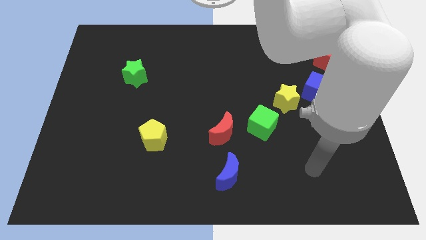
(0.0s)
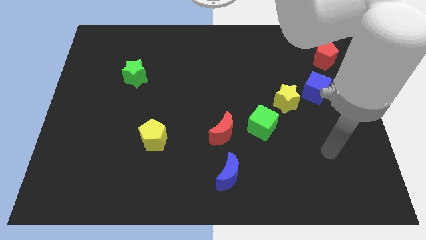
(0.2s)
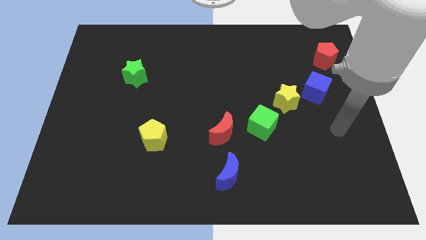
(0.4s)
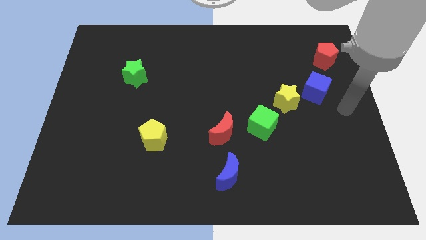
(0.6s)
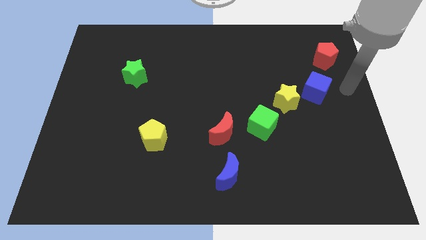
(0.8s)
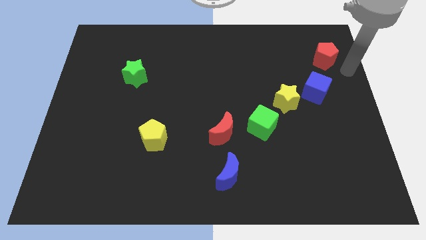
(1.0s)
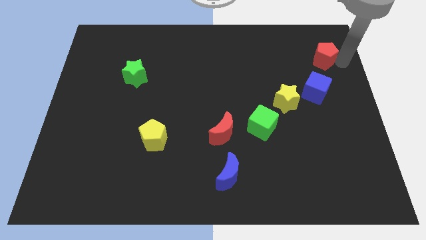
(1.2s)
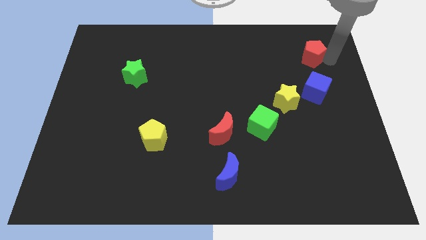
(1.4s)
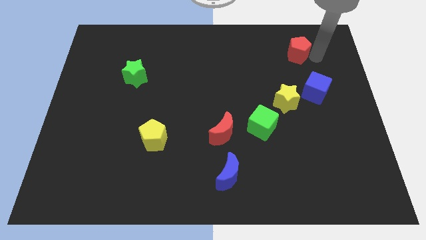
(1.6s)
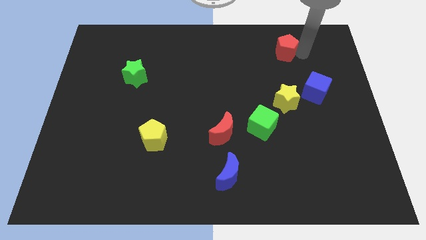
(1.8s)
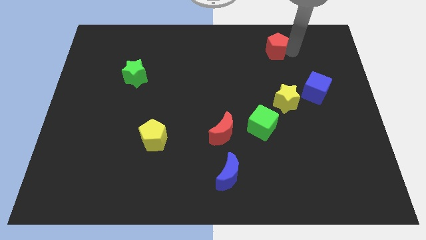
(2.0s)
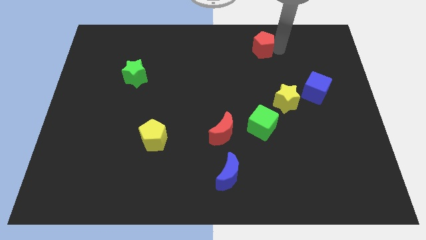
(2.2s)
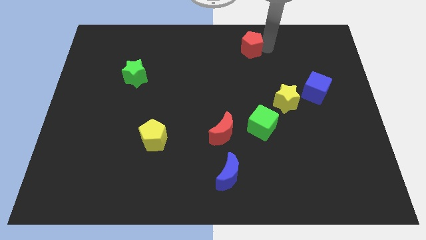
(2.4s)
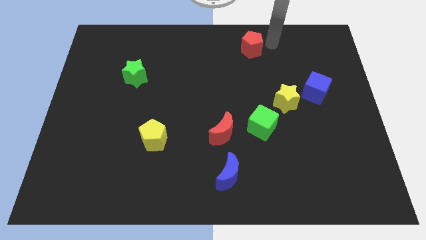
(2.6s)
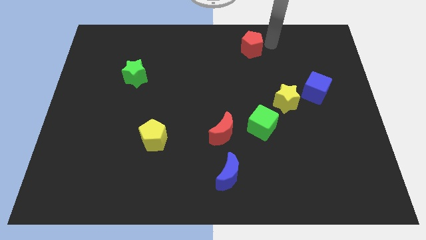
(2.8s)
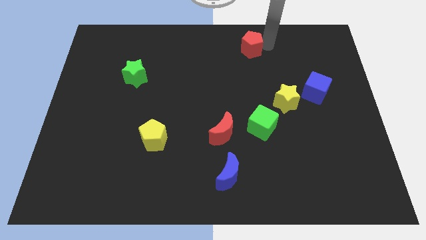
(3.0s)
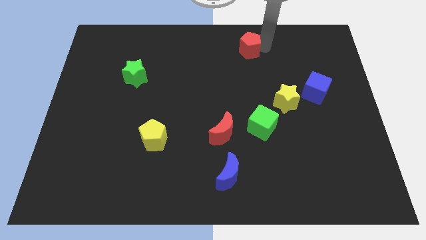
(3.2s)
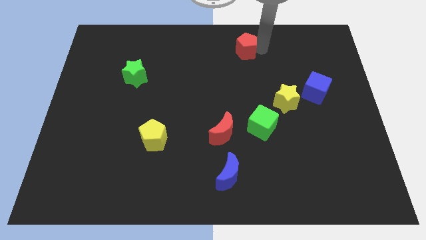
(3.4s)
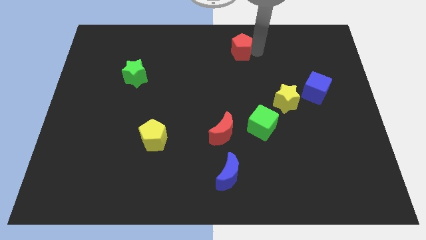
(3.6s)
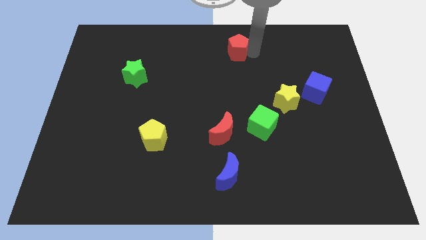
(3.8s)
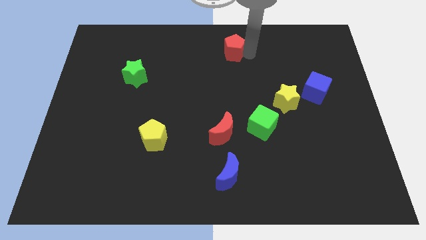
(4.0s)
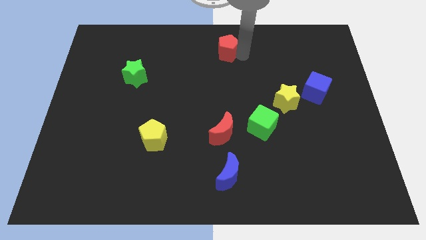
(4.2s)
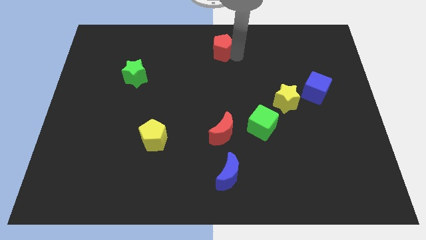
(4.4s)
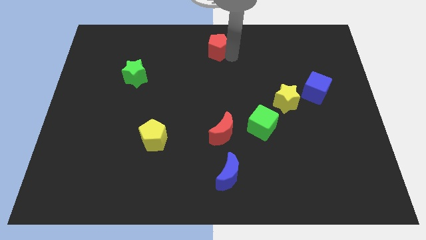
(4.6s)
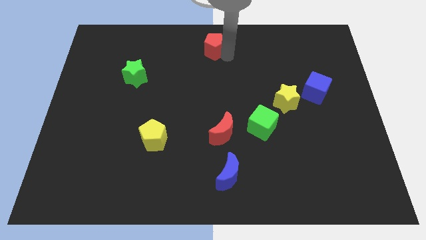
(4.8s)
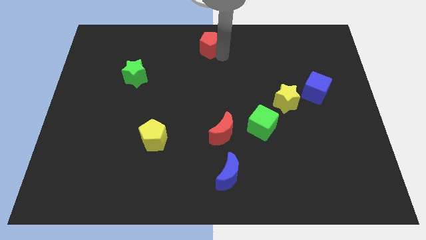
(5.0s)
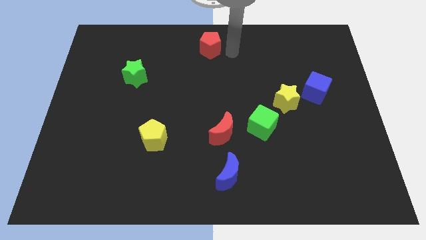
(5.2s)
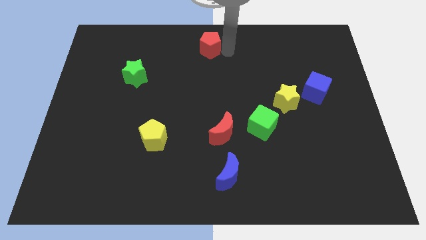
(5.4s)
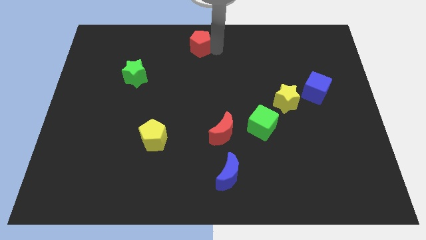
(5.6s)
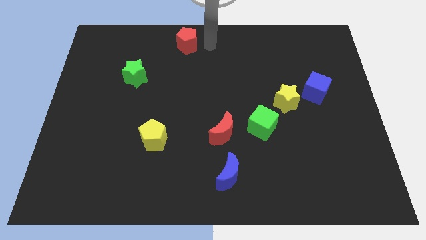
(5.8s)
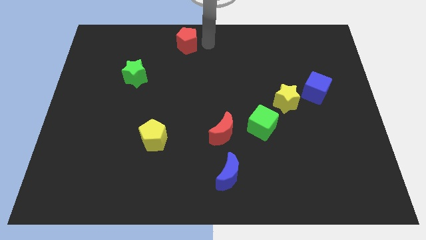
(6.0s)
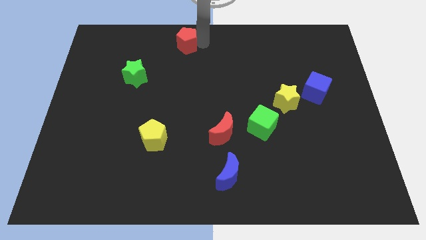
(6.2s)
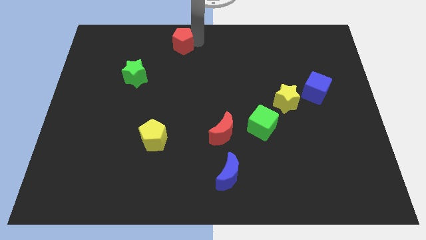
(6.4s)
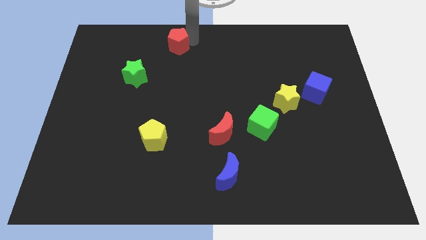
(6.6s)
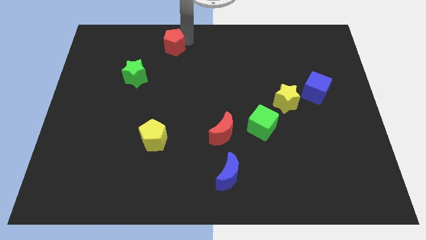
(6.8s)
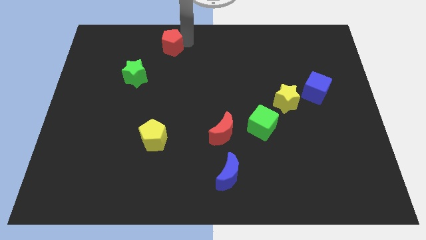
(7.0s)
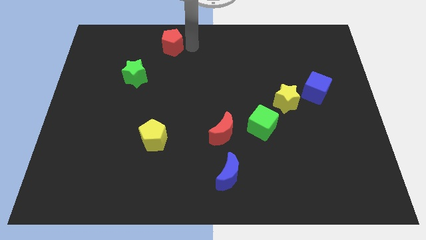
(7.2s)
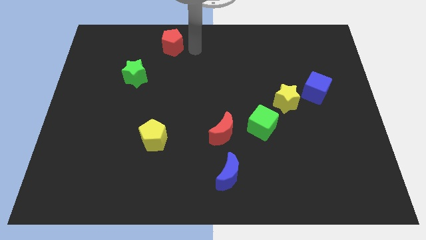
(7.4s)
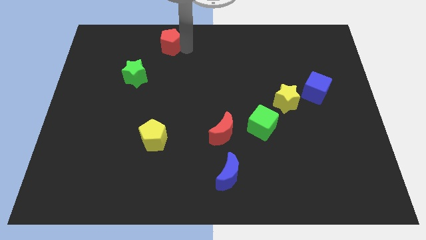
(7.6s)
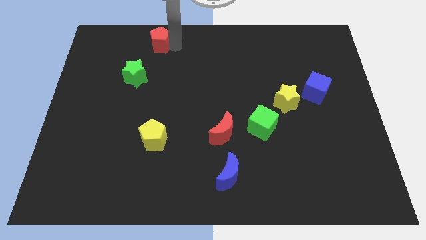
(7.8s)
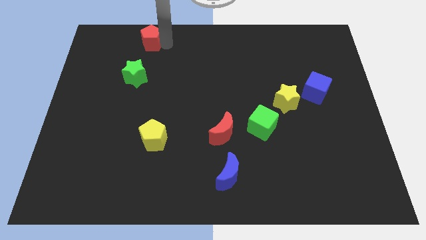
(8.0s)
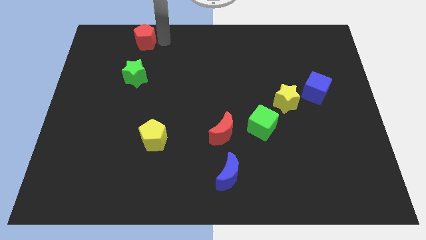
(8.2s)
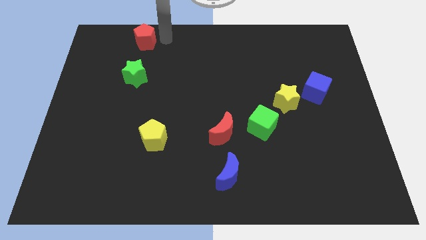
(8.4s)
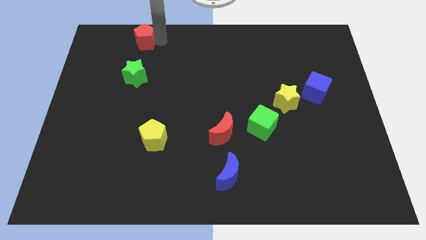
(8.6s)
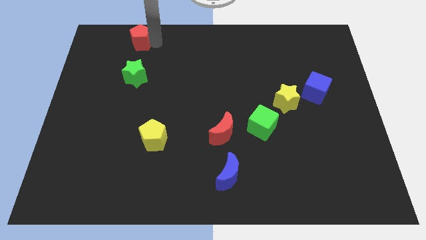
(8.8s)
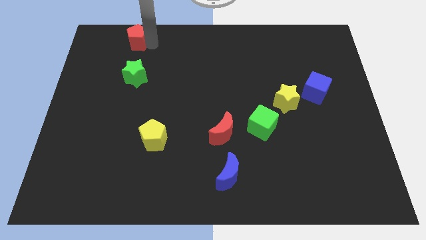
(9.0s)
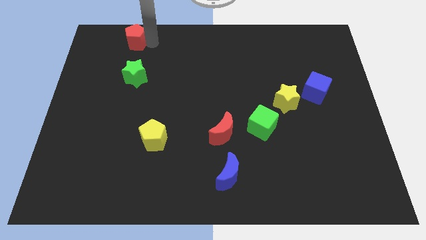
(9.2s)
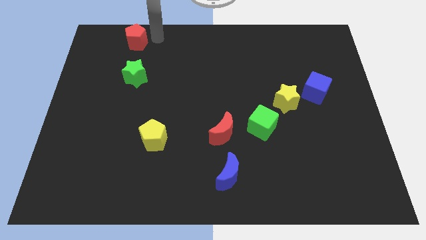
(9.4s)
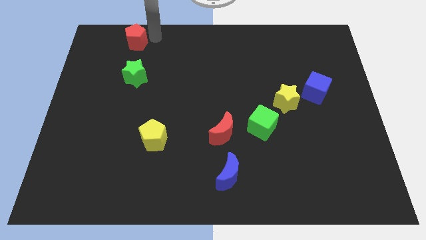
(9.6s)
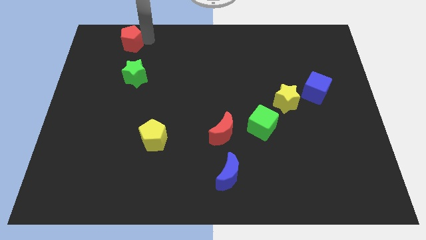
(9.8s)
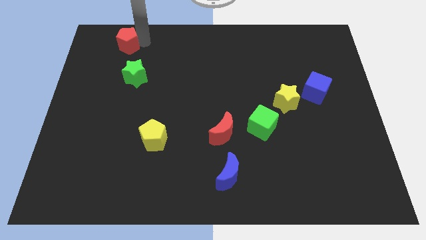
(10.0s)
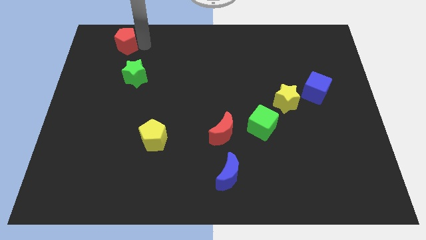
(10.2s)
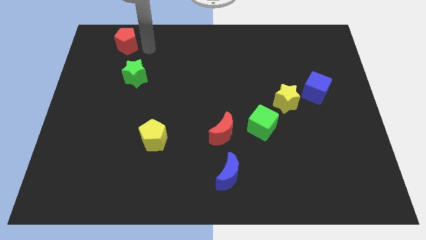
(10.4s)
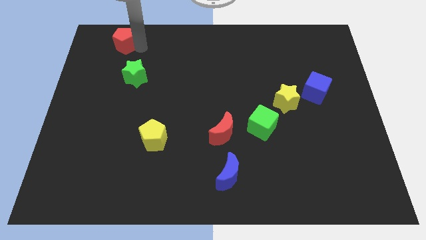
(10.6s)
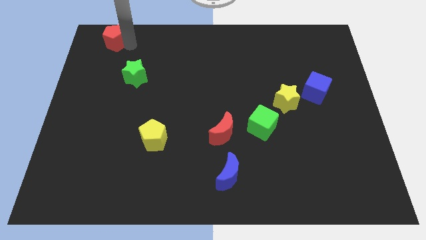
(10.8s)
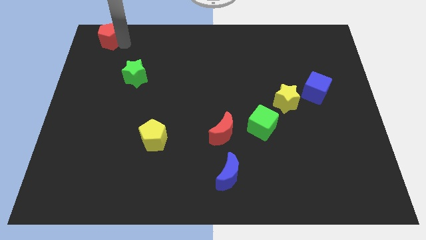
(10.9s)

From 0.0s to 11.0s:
move the red pentagon to the upper left corner

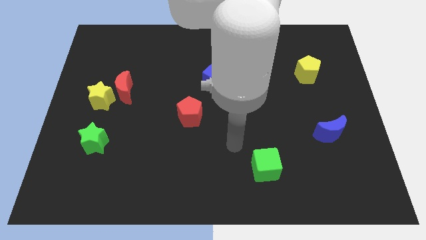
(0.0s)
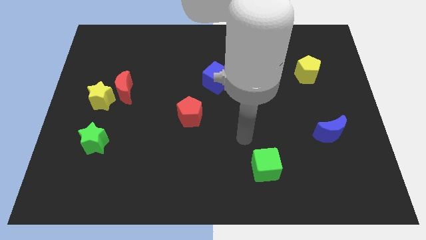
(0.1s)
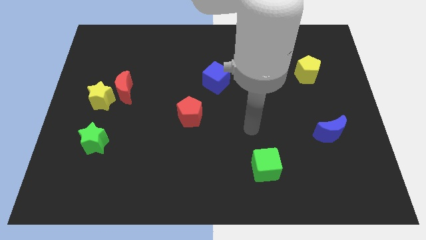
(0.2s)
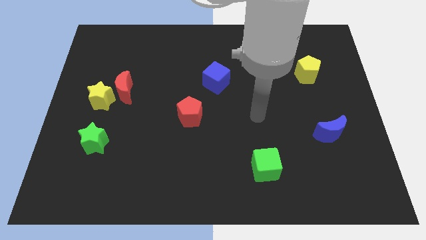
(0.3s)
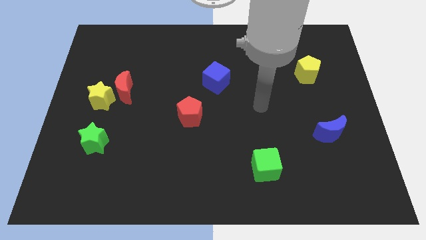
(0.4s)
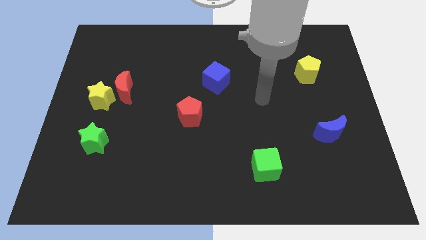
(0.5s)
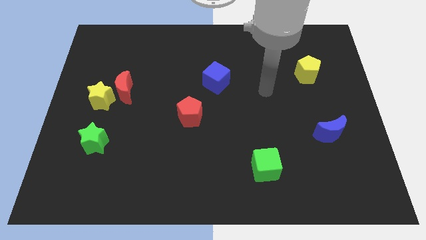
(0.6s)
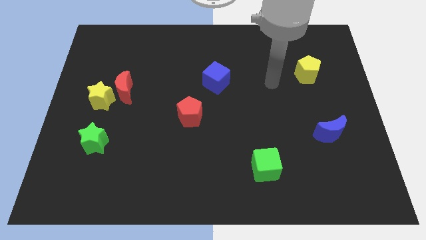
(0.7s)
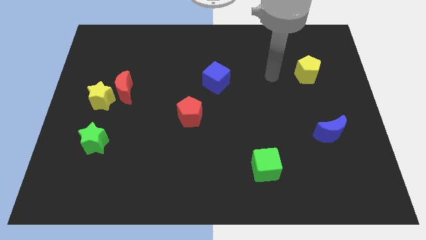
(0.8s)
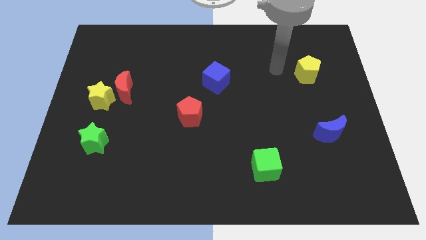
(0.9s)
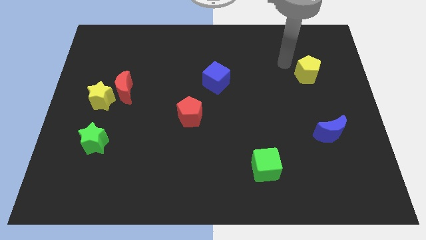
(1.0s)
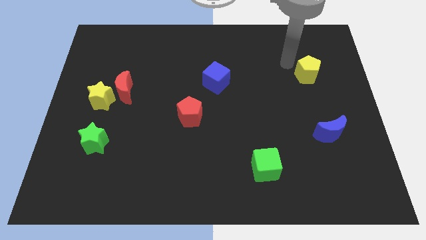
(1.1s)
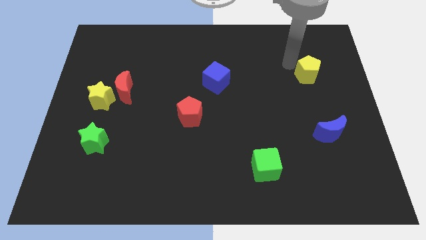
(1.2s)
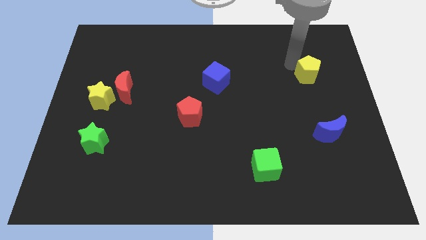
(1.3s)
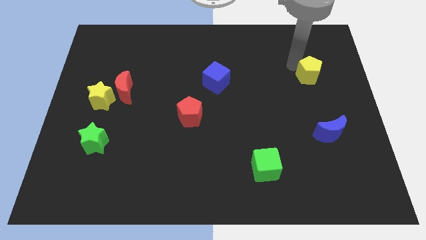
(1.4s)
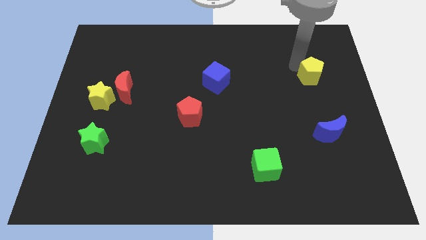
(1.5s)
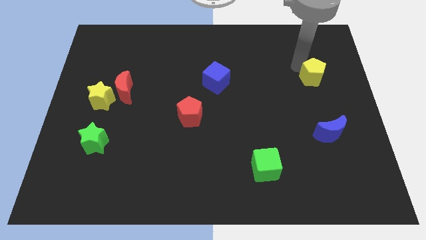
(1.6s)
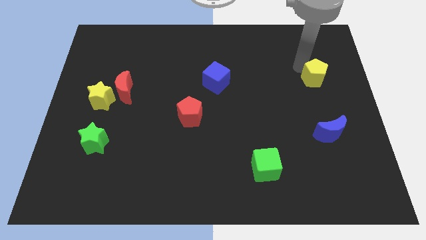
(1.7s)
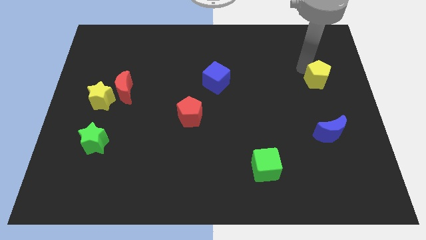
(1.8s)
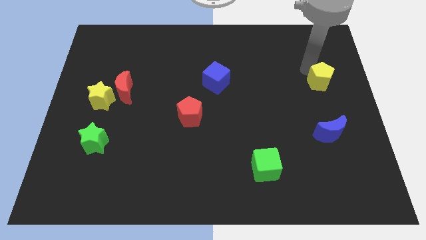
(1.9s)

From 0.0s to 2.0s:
move the yellow pentagon to the right side of the board
